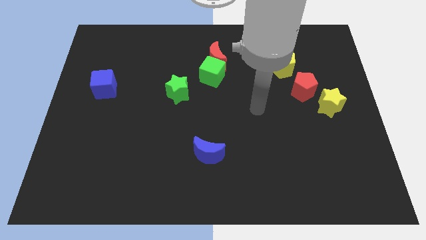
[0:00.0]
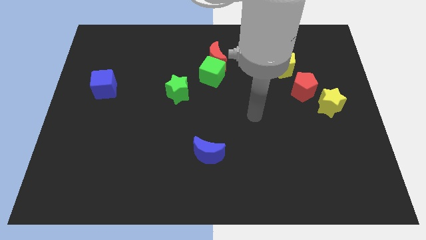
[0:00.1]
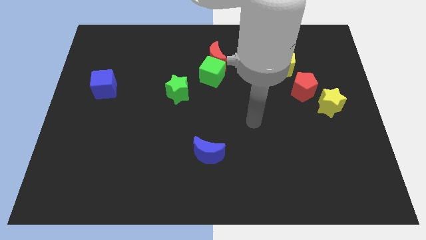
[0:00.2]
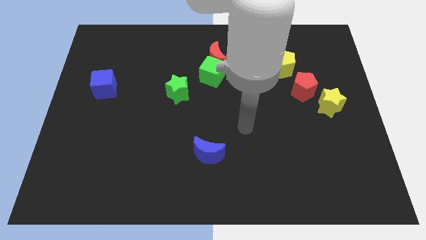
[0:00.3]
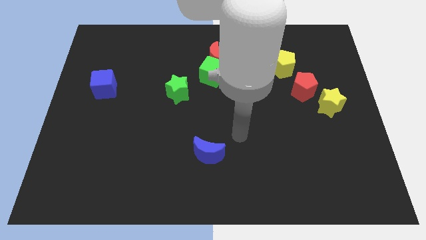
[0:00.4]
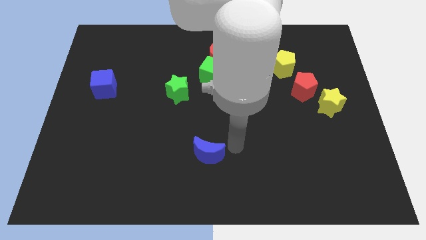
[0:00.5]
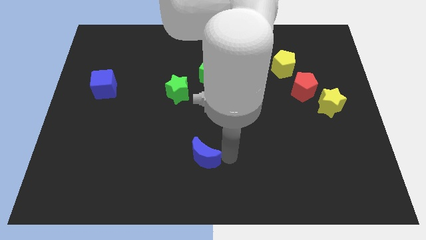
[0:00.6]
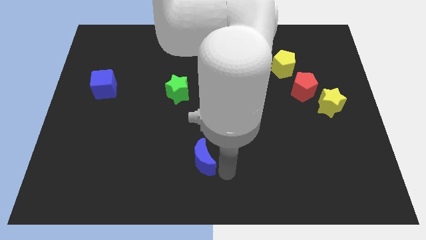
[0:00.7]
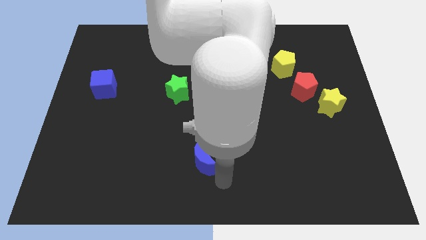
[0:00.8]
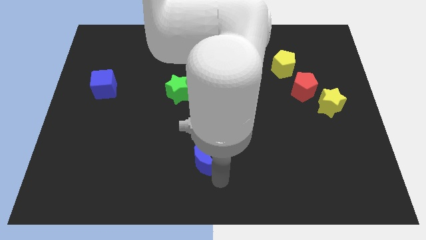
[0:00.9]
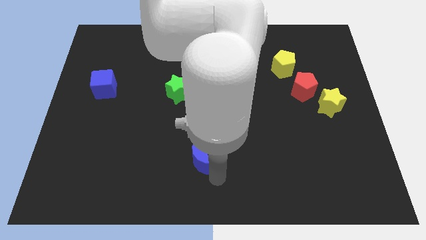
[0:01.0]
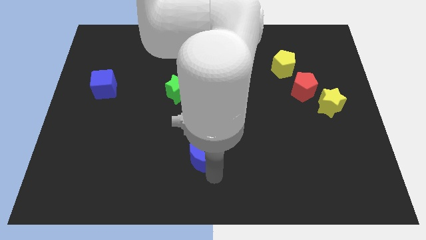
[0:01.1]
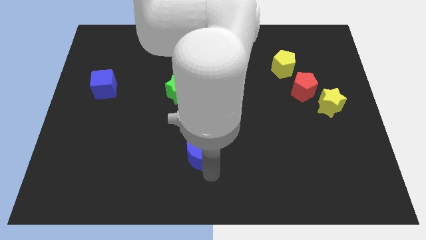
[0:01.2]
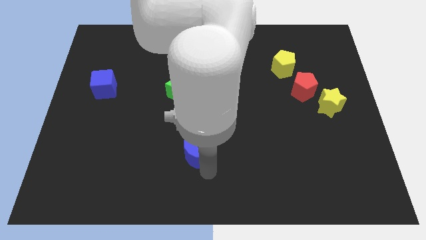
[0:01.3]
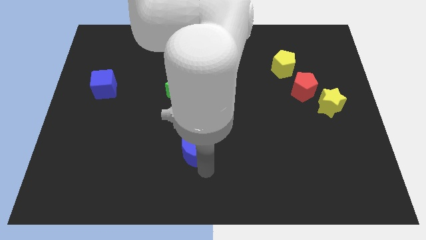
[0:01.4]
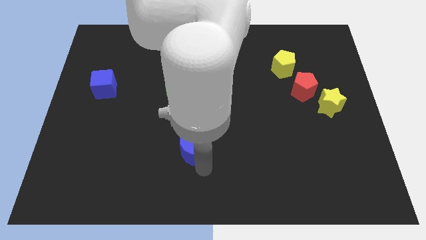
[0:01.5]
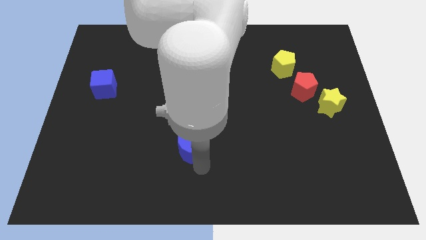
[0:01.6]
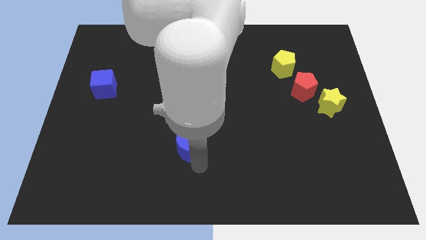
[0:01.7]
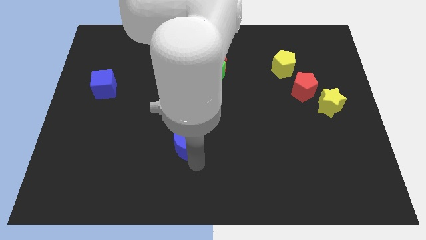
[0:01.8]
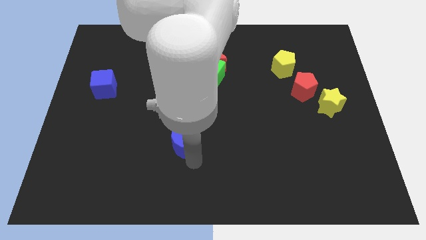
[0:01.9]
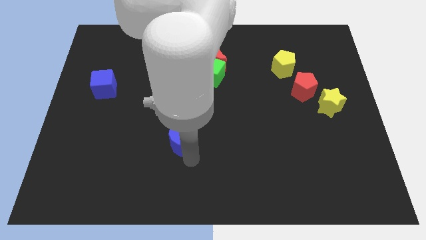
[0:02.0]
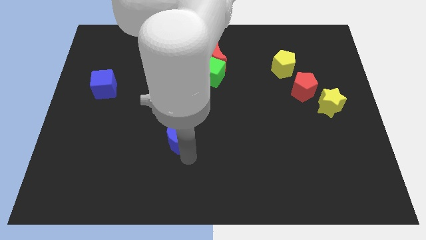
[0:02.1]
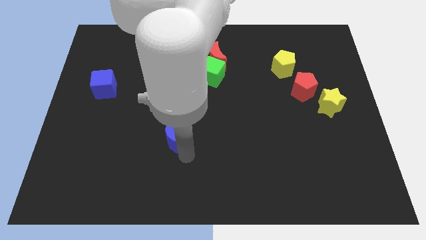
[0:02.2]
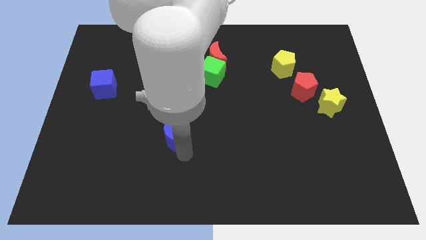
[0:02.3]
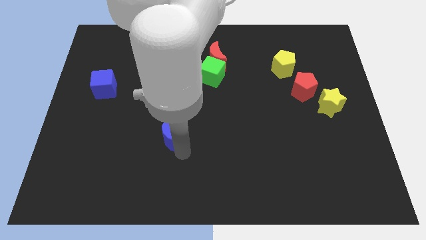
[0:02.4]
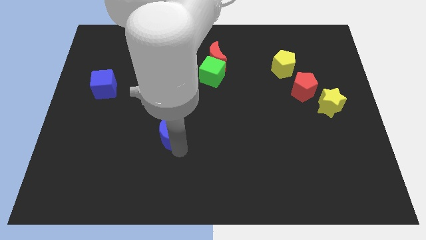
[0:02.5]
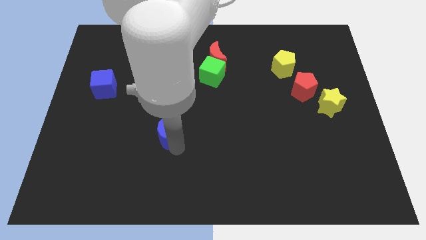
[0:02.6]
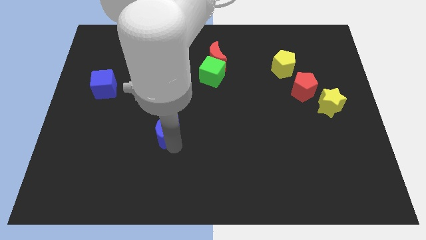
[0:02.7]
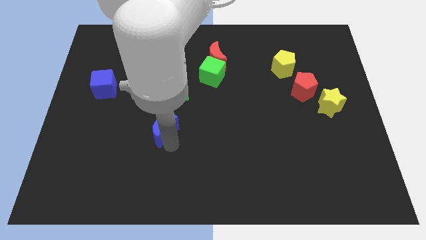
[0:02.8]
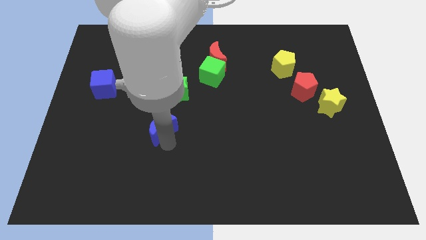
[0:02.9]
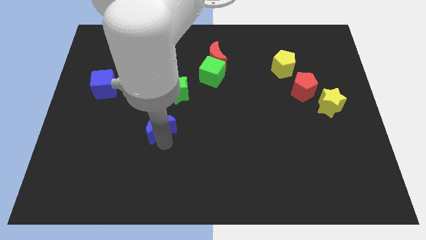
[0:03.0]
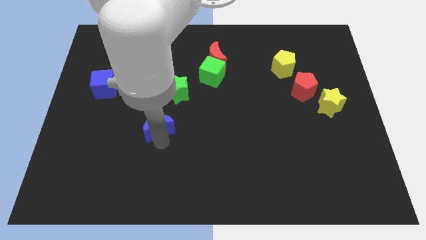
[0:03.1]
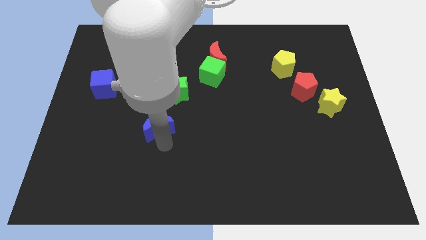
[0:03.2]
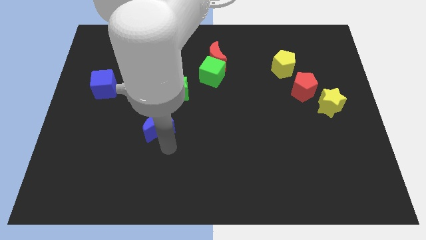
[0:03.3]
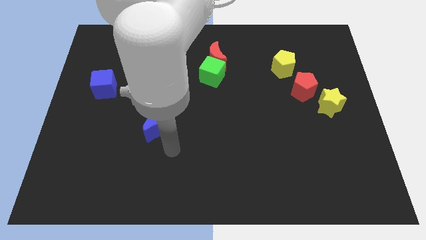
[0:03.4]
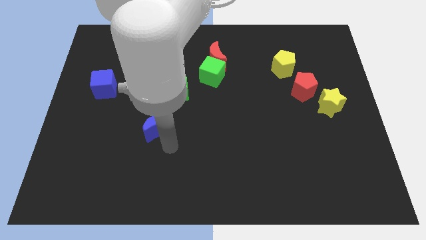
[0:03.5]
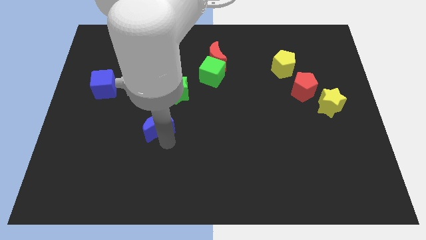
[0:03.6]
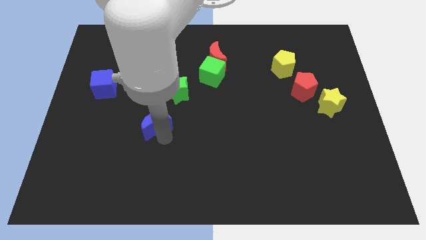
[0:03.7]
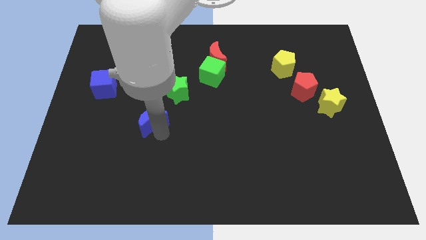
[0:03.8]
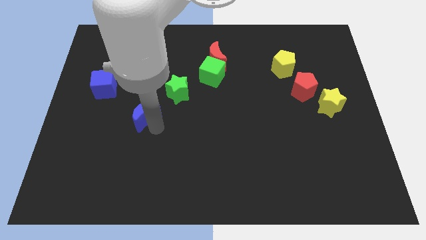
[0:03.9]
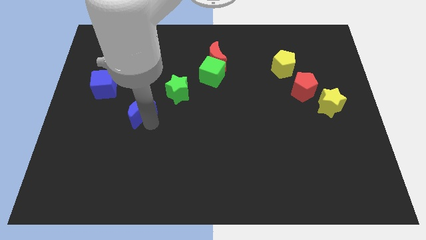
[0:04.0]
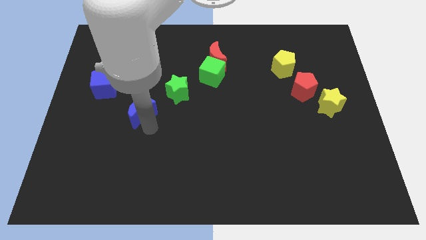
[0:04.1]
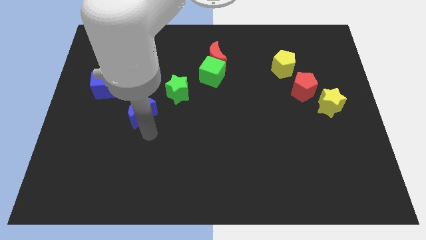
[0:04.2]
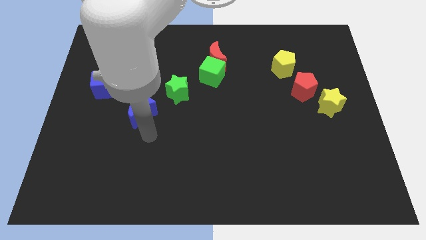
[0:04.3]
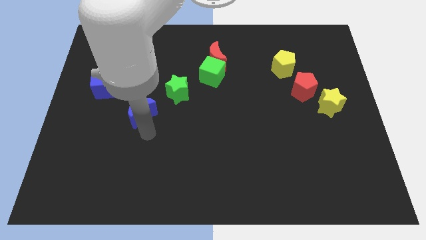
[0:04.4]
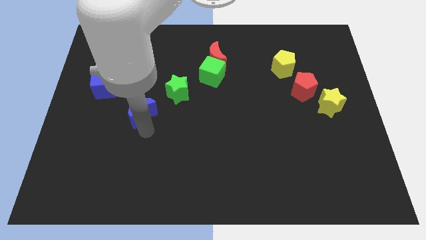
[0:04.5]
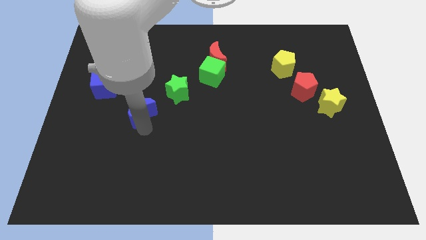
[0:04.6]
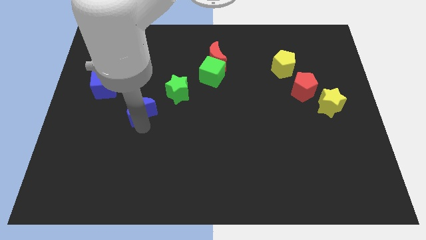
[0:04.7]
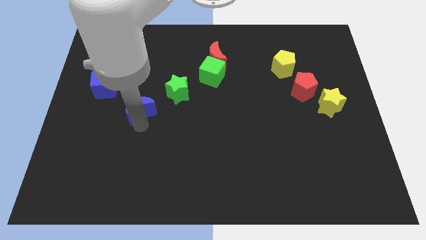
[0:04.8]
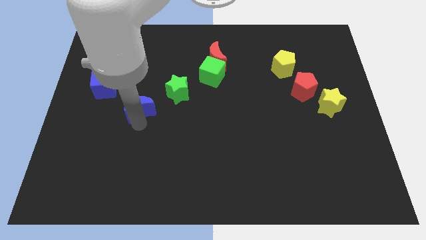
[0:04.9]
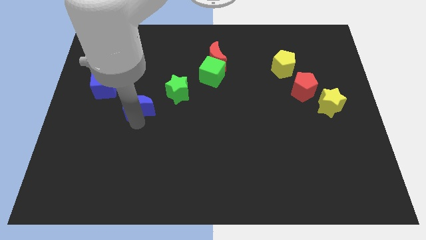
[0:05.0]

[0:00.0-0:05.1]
slide the blue moon upwards and left

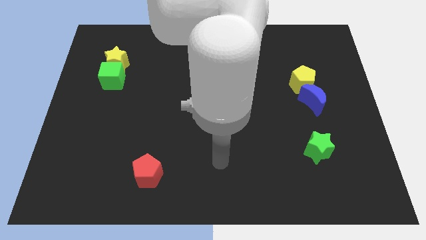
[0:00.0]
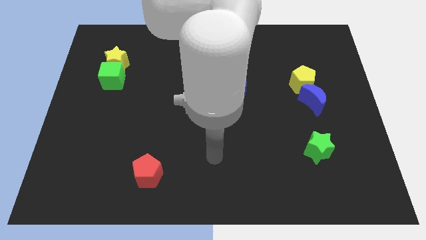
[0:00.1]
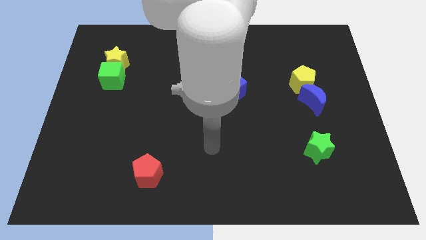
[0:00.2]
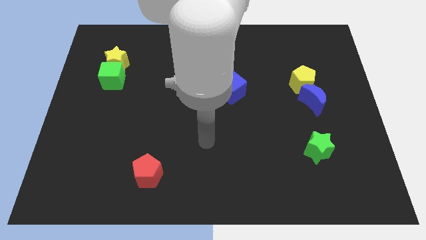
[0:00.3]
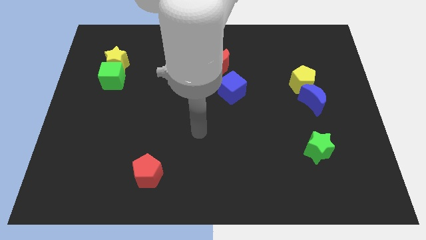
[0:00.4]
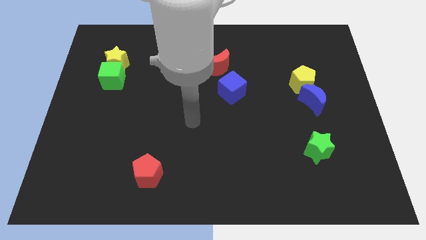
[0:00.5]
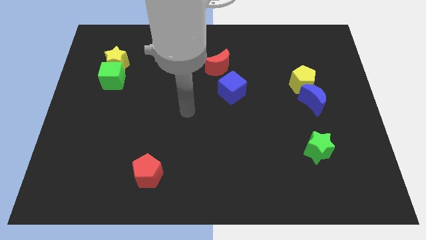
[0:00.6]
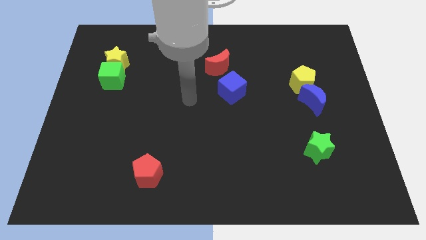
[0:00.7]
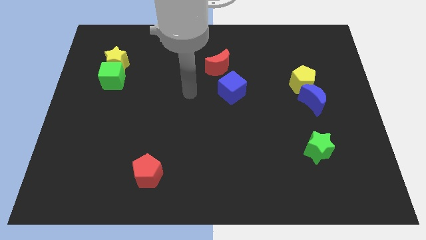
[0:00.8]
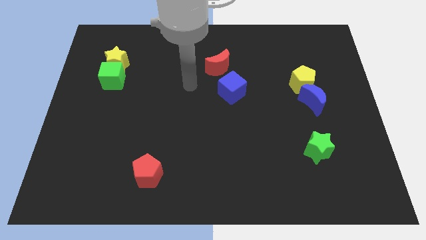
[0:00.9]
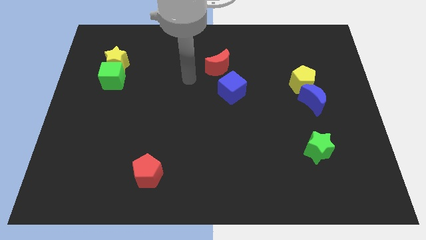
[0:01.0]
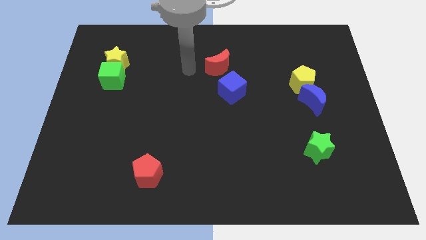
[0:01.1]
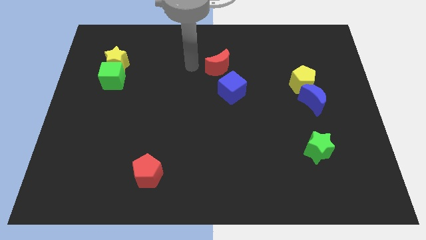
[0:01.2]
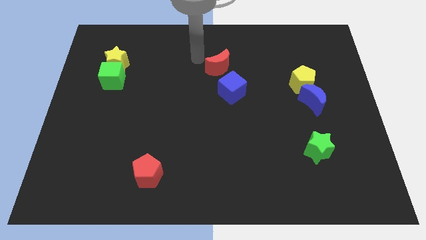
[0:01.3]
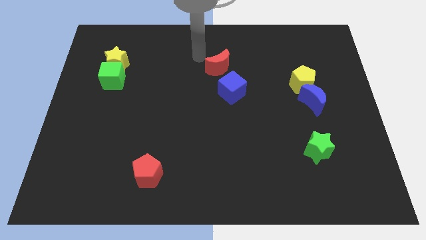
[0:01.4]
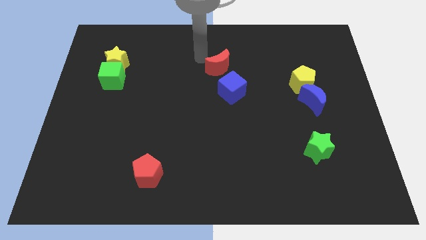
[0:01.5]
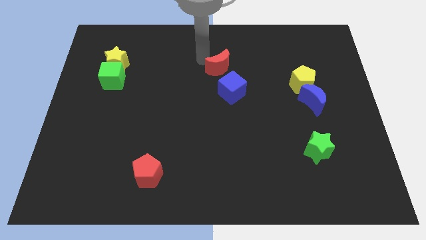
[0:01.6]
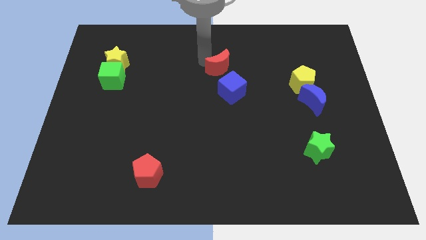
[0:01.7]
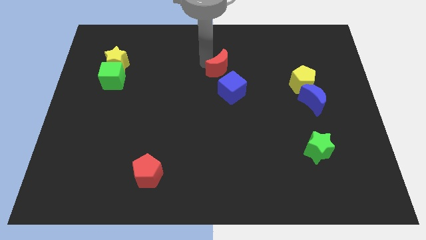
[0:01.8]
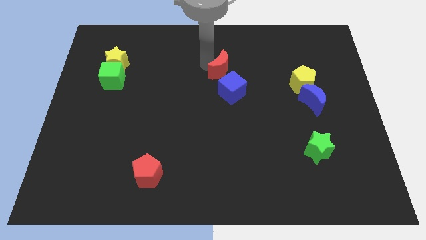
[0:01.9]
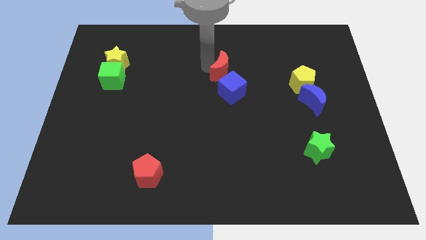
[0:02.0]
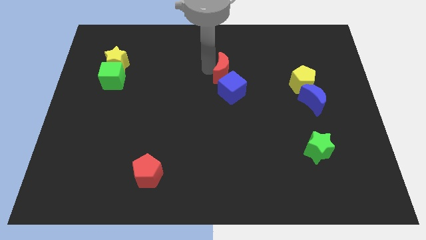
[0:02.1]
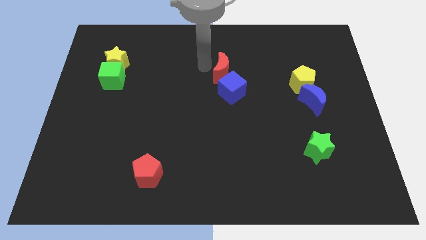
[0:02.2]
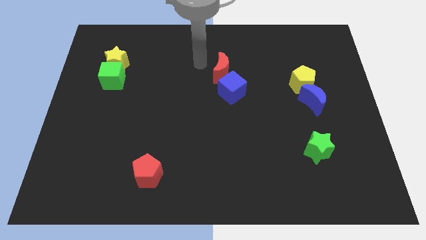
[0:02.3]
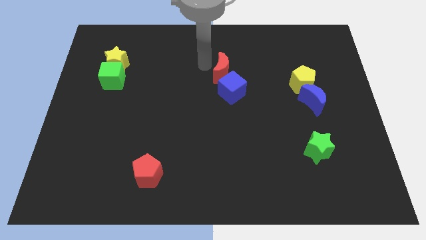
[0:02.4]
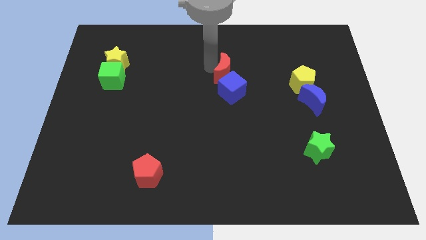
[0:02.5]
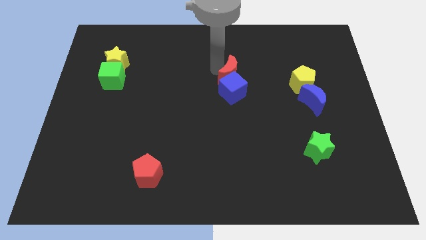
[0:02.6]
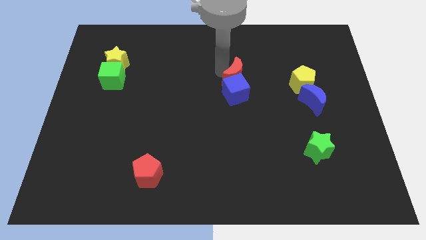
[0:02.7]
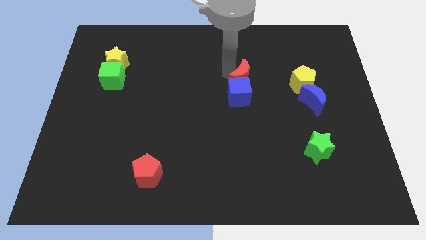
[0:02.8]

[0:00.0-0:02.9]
push the red moon a little bit diagonally downwards and to the right
